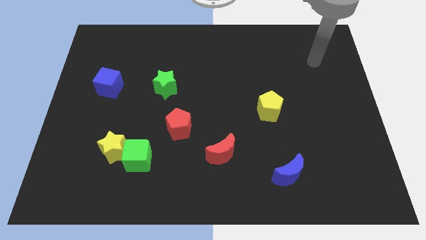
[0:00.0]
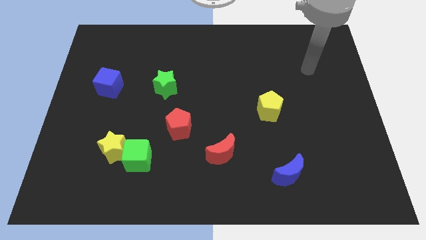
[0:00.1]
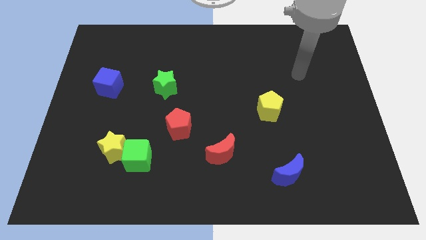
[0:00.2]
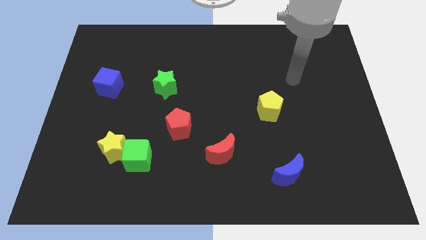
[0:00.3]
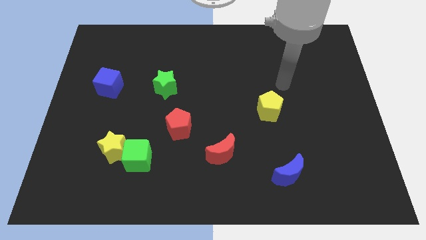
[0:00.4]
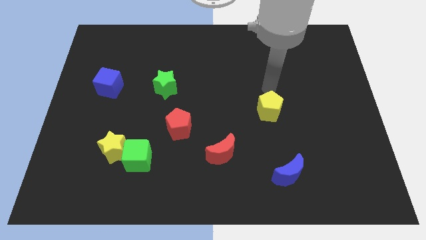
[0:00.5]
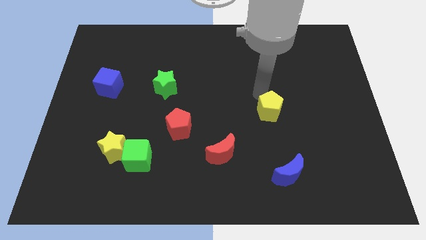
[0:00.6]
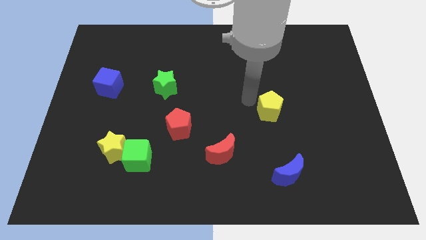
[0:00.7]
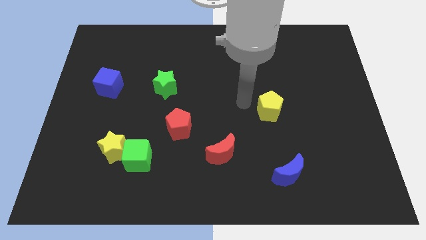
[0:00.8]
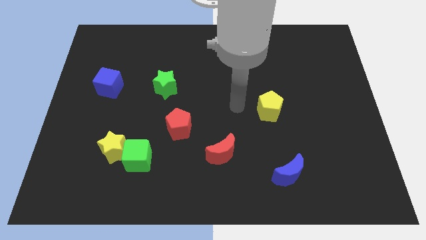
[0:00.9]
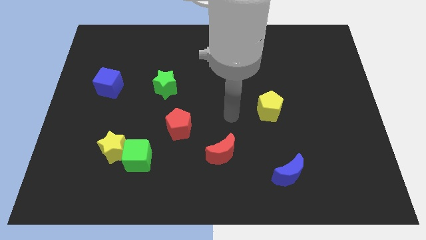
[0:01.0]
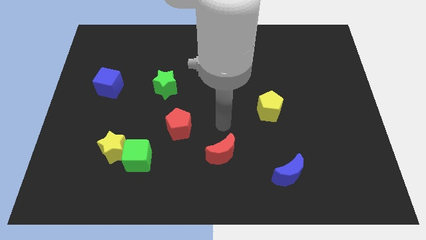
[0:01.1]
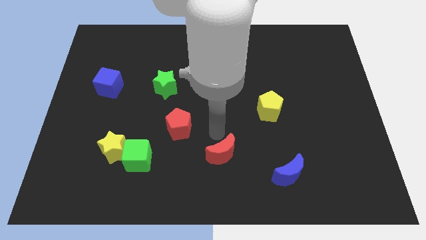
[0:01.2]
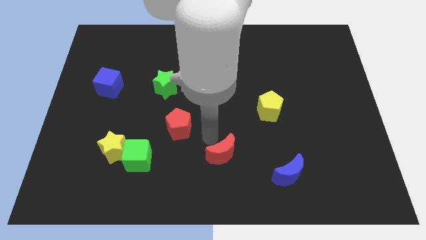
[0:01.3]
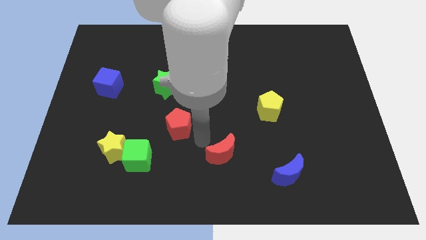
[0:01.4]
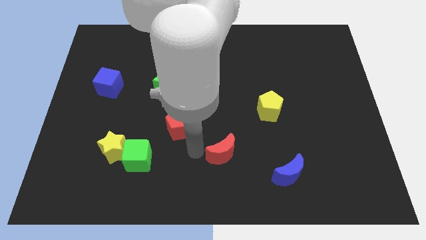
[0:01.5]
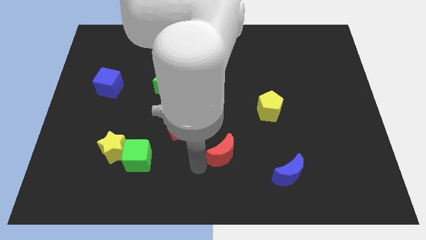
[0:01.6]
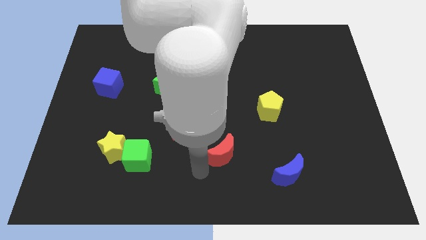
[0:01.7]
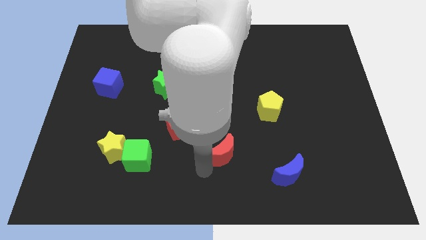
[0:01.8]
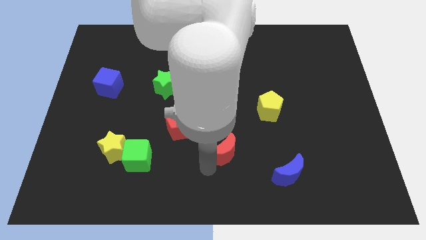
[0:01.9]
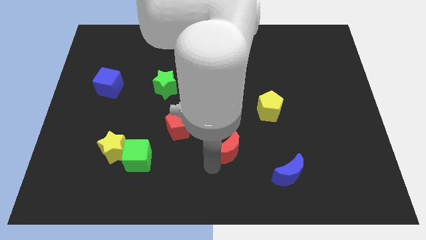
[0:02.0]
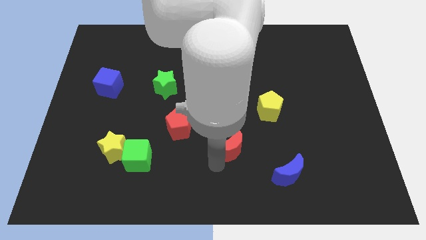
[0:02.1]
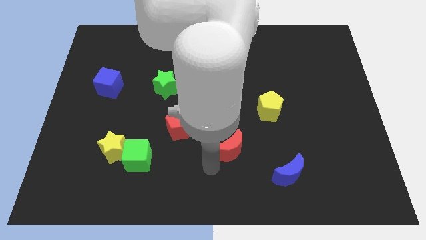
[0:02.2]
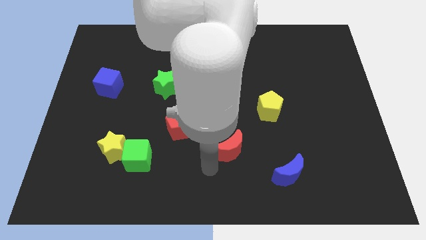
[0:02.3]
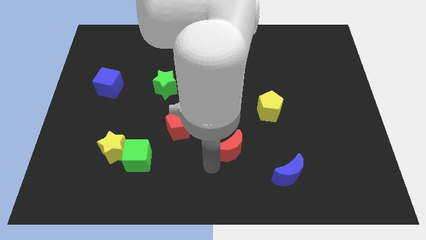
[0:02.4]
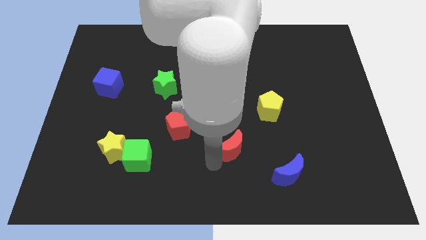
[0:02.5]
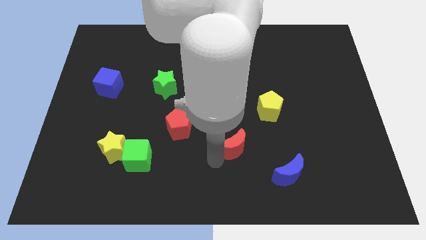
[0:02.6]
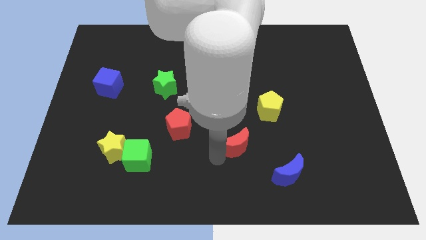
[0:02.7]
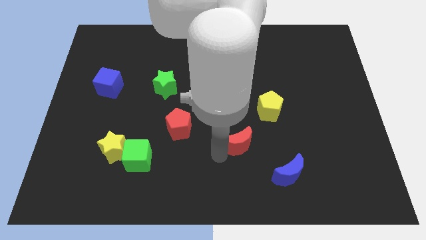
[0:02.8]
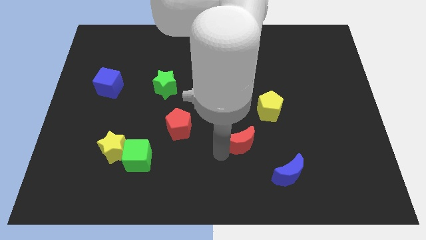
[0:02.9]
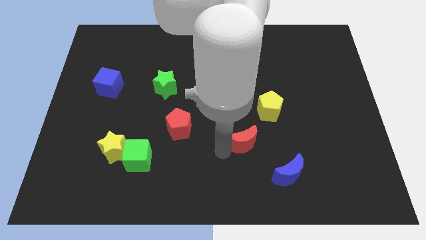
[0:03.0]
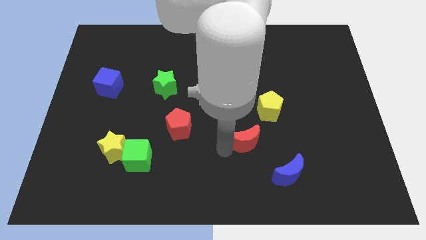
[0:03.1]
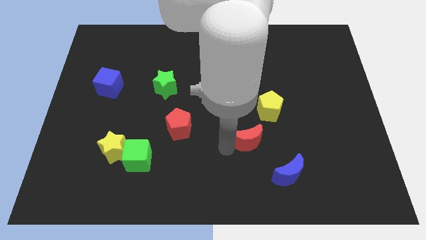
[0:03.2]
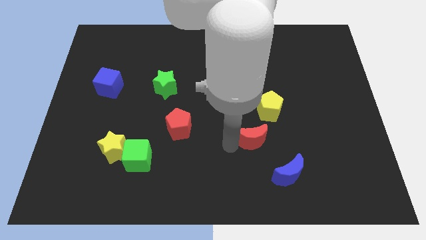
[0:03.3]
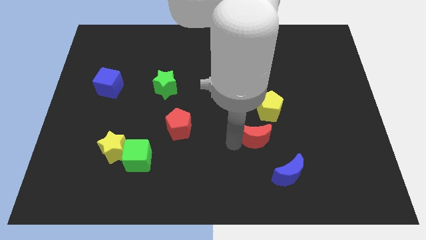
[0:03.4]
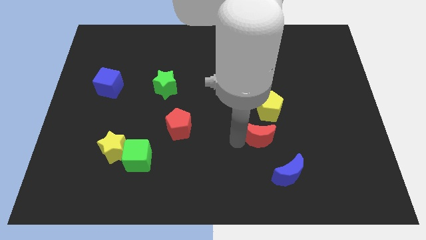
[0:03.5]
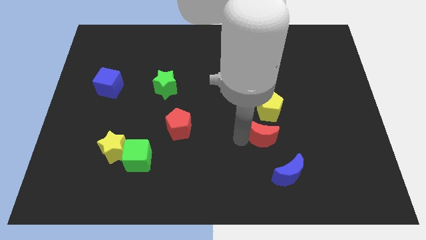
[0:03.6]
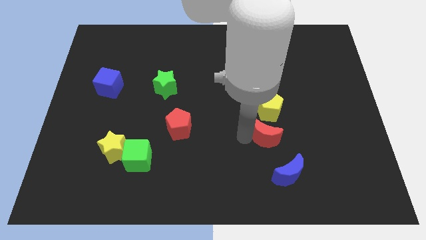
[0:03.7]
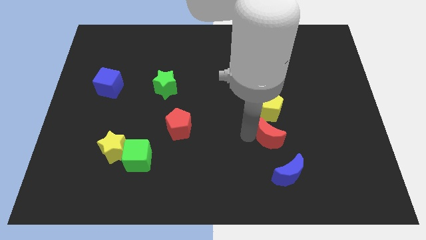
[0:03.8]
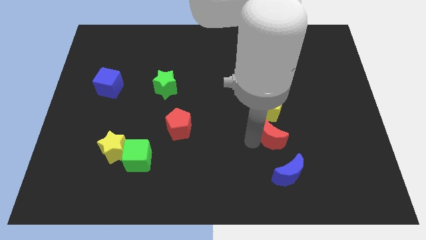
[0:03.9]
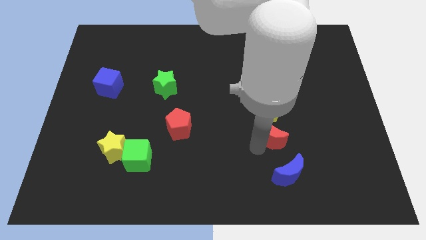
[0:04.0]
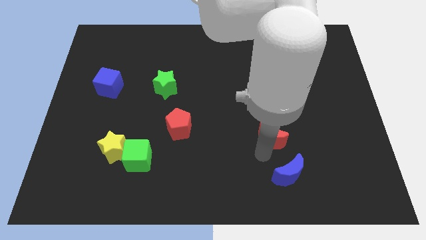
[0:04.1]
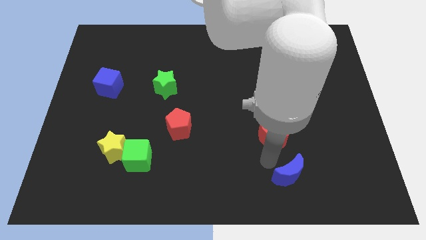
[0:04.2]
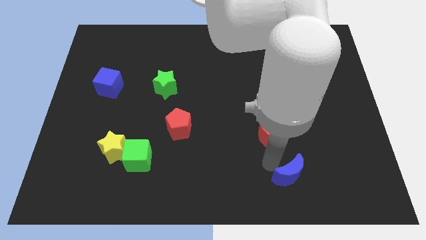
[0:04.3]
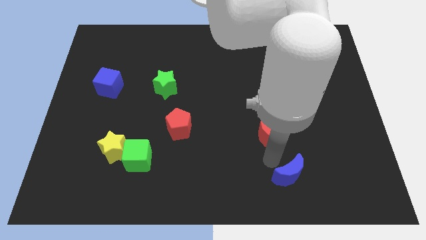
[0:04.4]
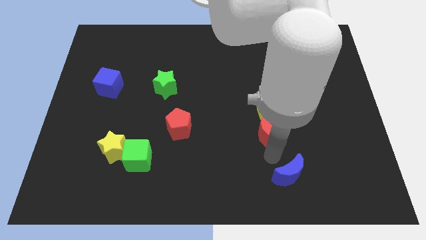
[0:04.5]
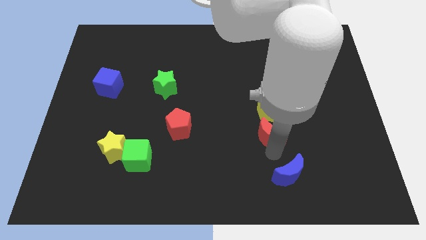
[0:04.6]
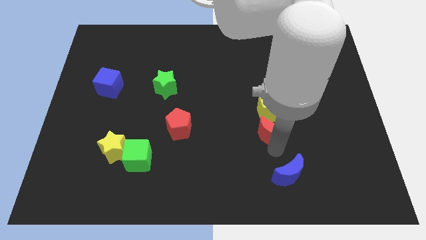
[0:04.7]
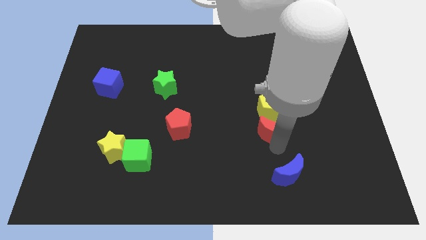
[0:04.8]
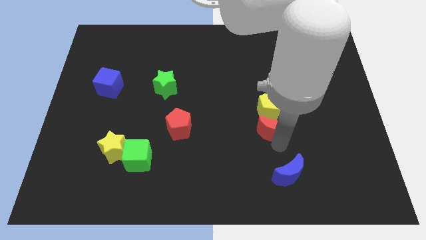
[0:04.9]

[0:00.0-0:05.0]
push the red moon close to the yellow pentagon

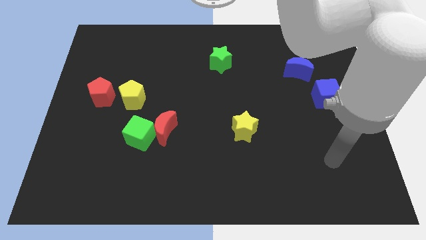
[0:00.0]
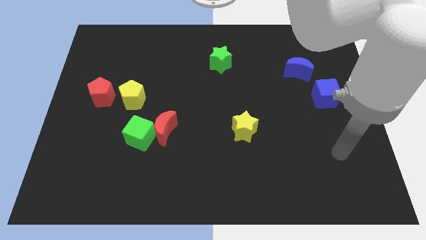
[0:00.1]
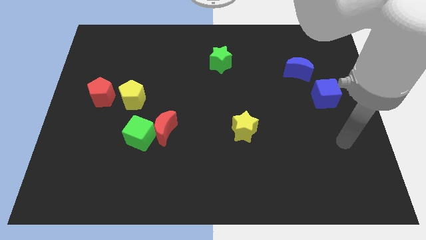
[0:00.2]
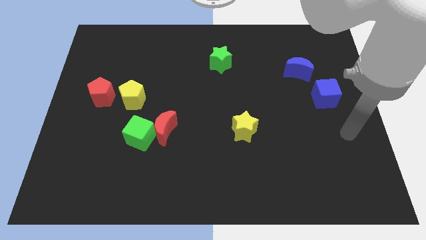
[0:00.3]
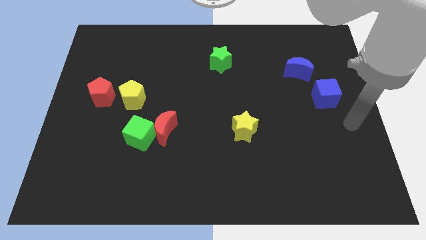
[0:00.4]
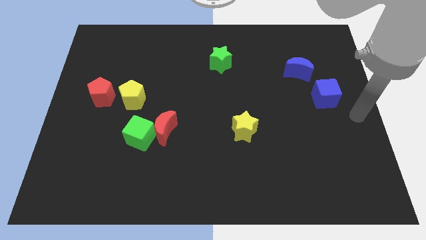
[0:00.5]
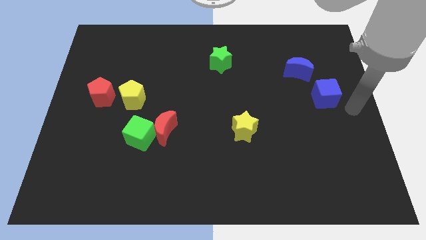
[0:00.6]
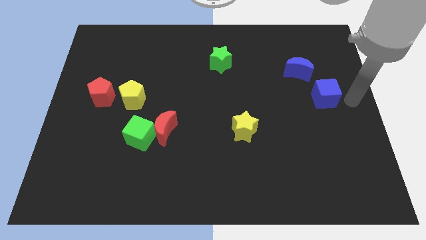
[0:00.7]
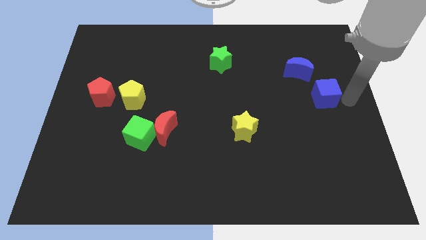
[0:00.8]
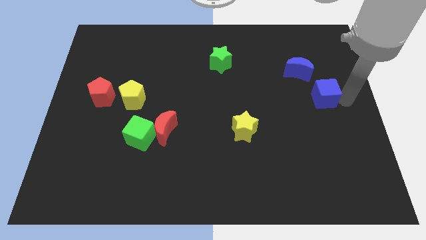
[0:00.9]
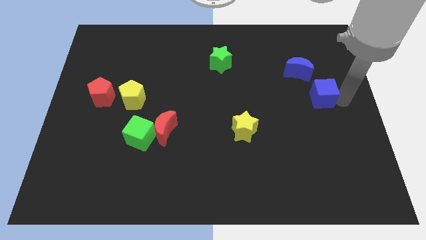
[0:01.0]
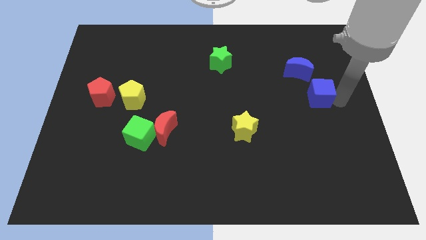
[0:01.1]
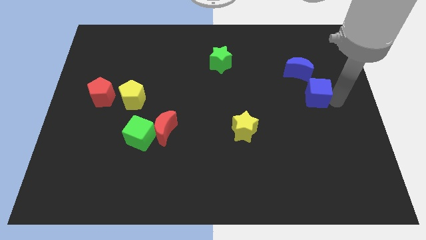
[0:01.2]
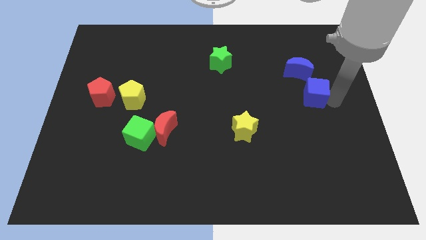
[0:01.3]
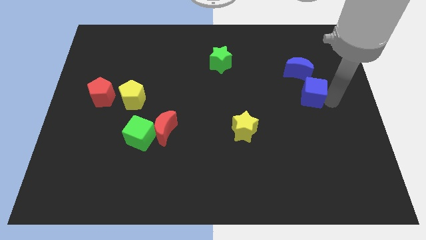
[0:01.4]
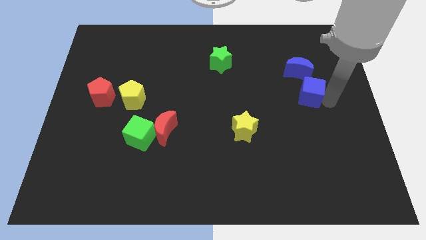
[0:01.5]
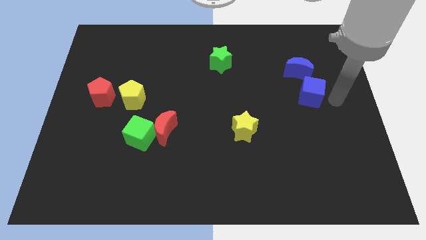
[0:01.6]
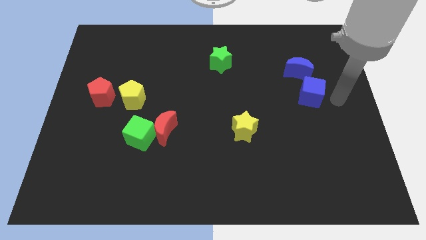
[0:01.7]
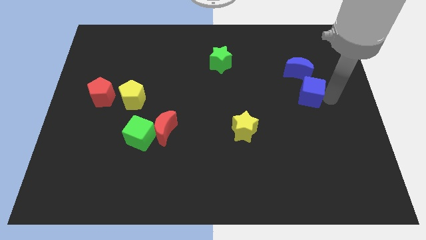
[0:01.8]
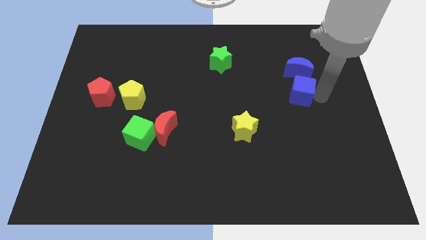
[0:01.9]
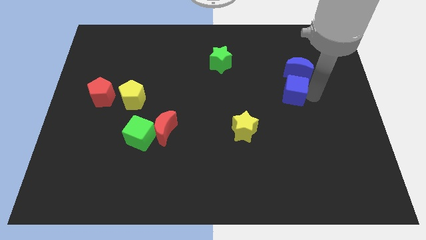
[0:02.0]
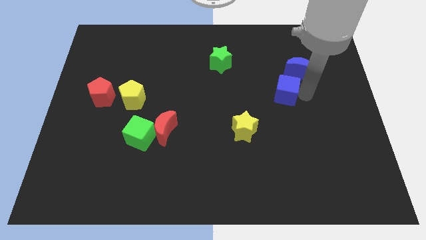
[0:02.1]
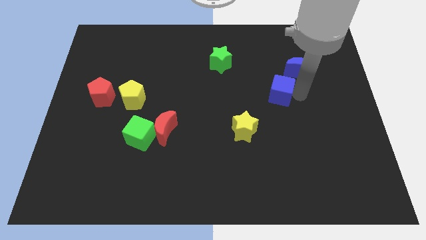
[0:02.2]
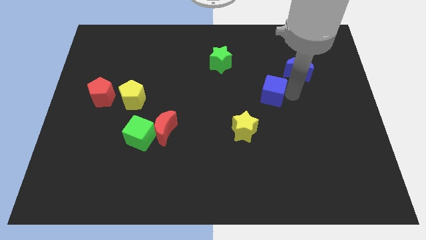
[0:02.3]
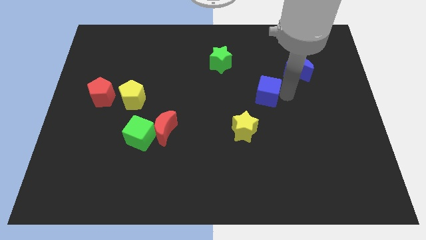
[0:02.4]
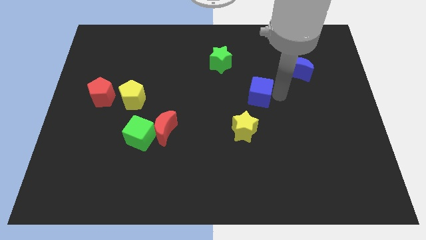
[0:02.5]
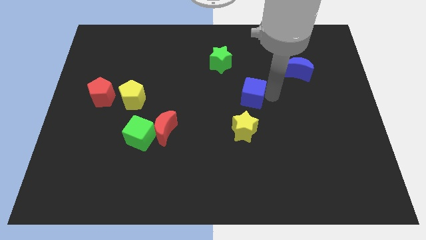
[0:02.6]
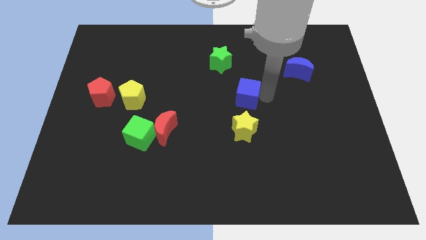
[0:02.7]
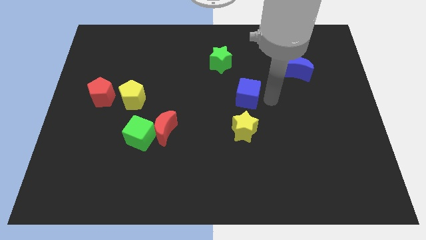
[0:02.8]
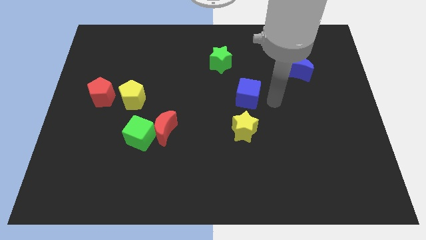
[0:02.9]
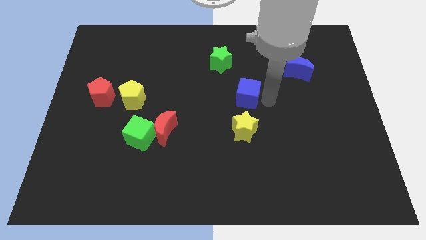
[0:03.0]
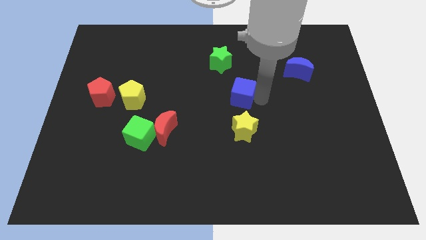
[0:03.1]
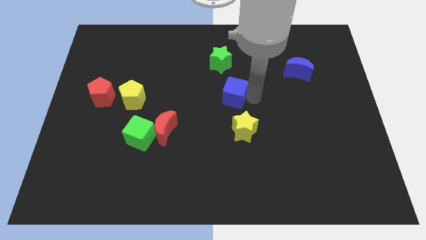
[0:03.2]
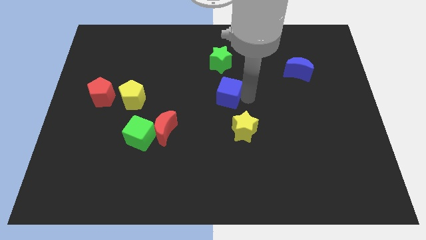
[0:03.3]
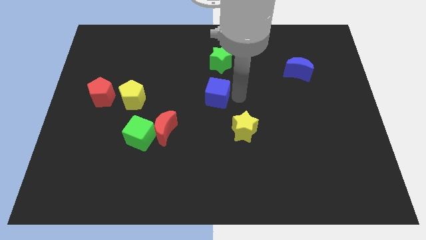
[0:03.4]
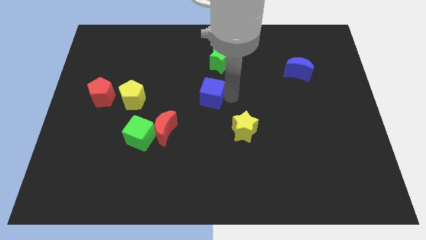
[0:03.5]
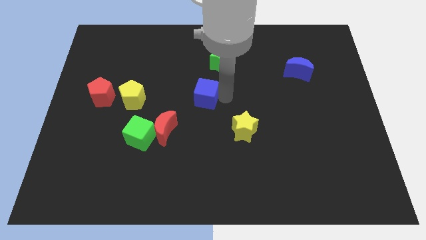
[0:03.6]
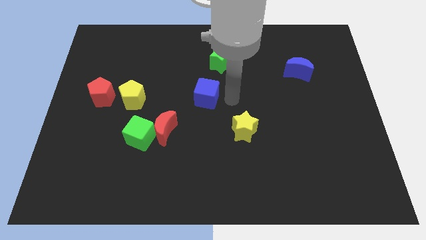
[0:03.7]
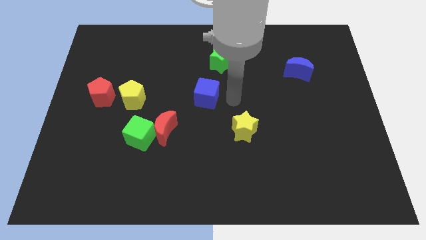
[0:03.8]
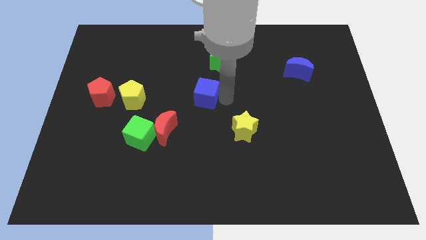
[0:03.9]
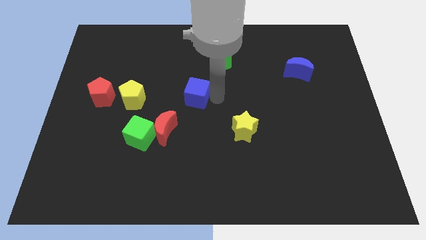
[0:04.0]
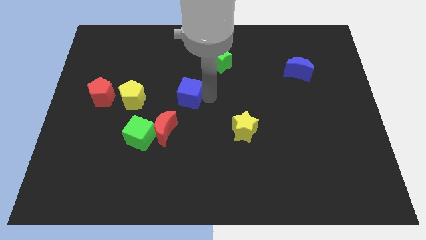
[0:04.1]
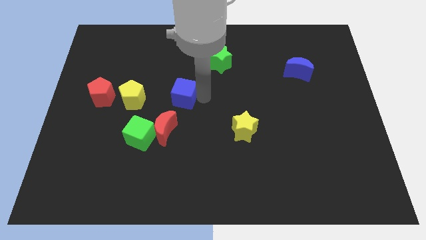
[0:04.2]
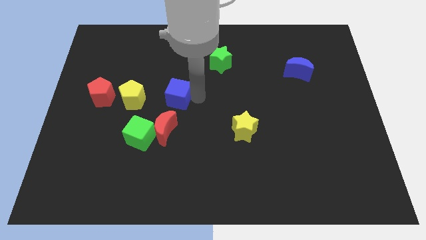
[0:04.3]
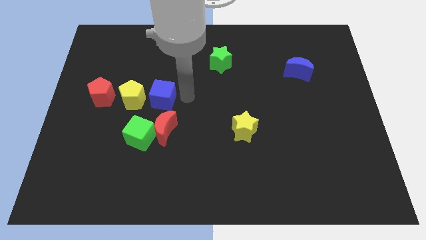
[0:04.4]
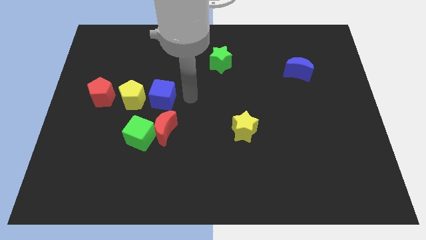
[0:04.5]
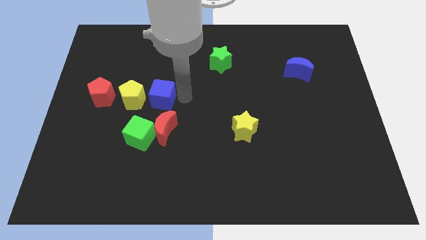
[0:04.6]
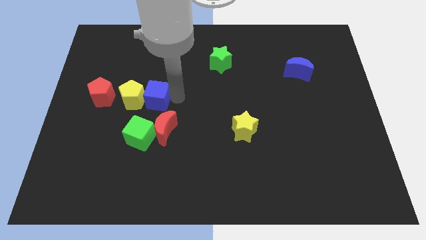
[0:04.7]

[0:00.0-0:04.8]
move the blue cube next to the yellow pentagon
